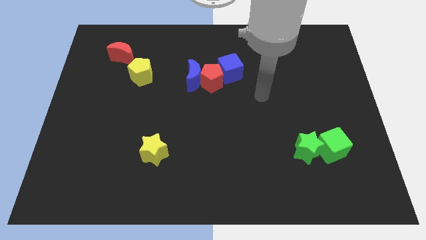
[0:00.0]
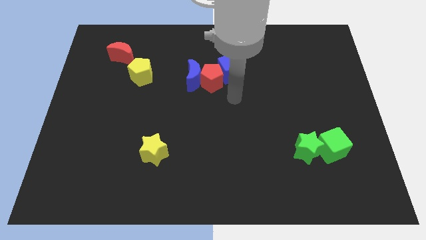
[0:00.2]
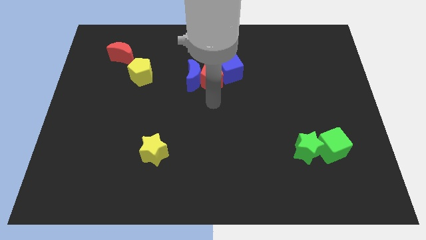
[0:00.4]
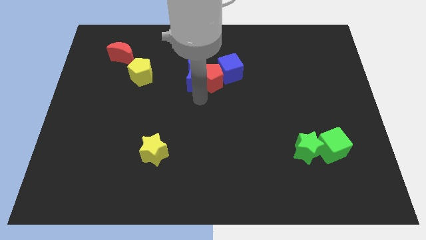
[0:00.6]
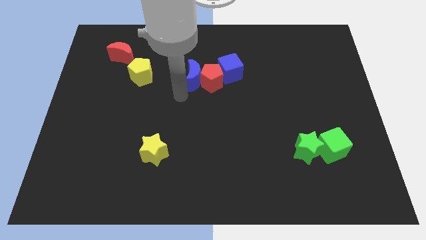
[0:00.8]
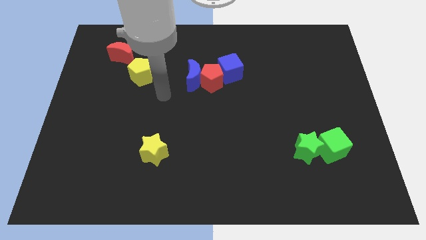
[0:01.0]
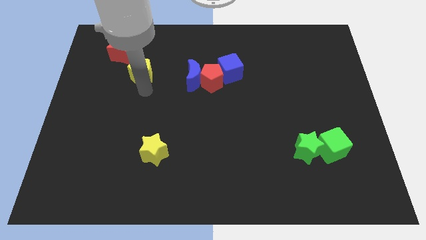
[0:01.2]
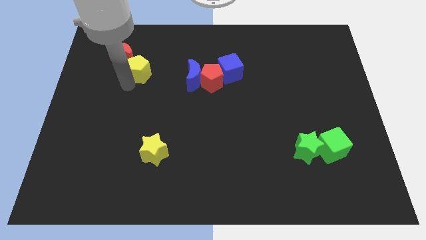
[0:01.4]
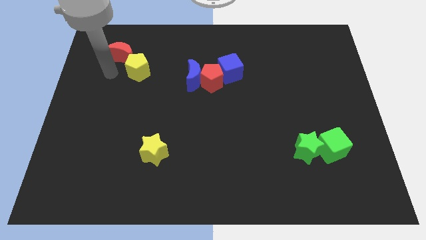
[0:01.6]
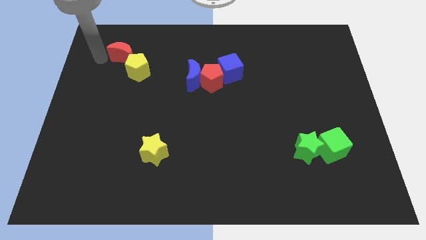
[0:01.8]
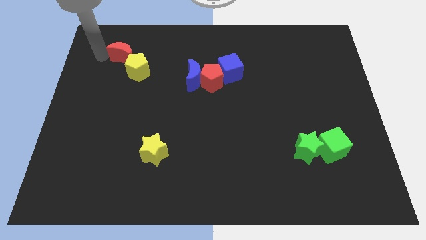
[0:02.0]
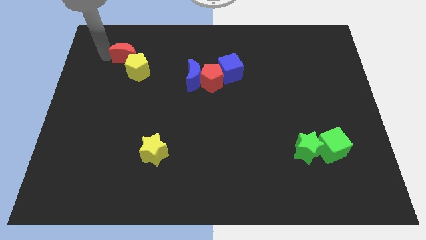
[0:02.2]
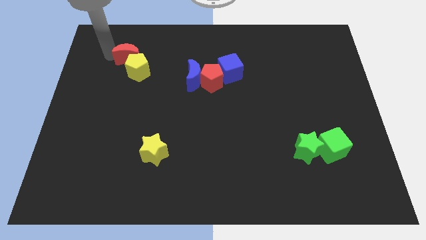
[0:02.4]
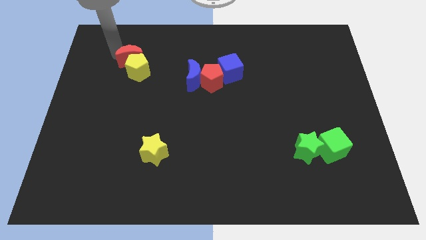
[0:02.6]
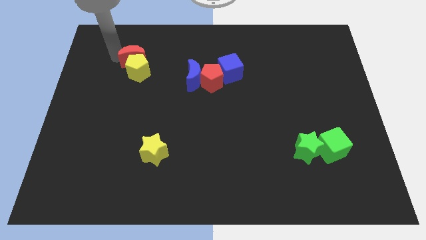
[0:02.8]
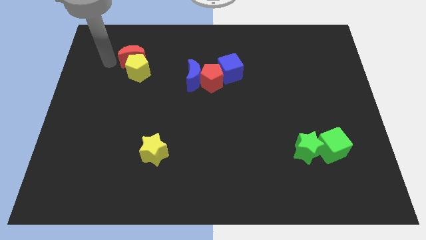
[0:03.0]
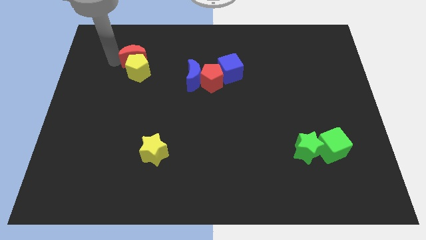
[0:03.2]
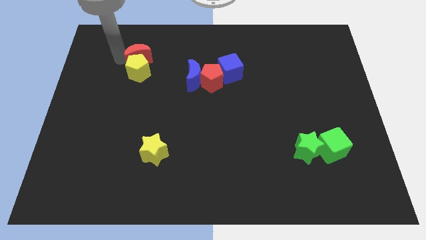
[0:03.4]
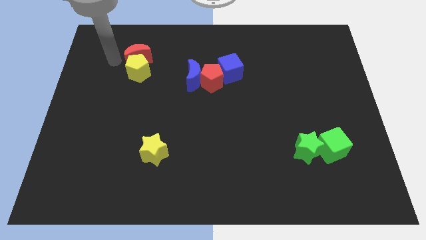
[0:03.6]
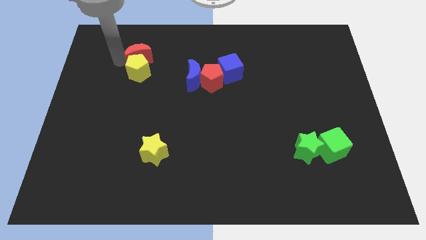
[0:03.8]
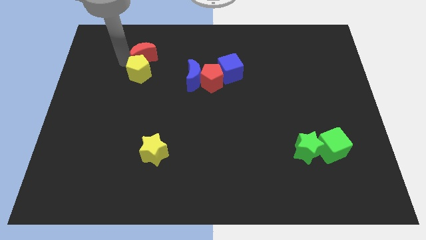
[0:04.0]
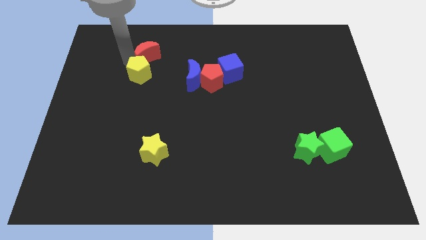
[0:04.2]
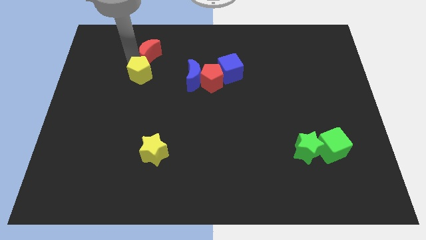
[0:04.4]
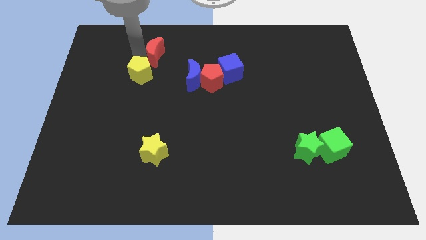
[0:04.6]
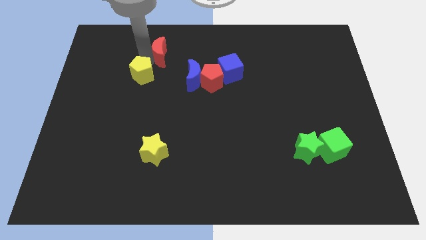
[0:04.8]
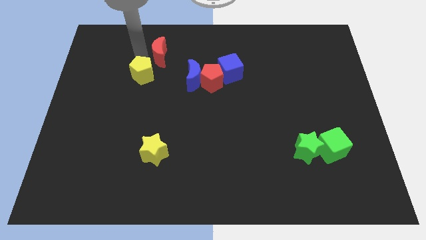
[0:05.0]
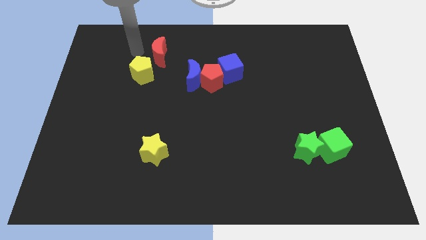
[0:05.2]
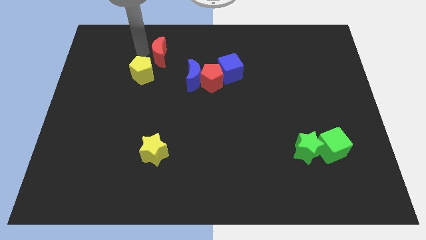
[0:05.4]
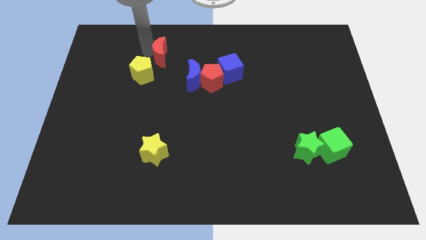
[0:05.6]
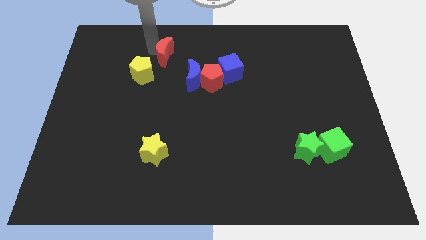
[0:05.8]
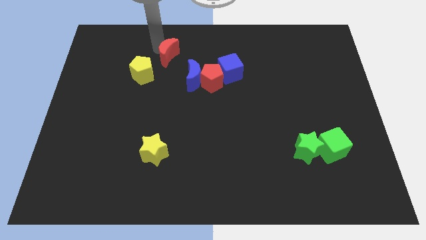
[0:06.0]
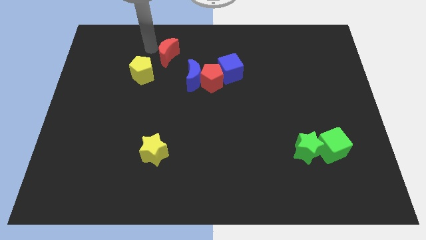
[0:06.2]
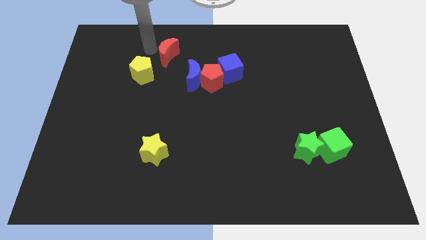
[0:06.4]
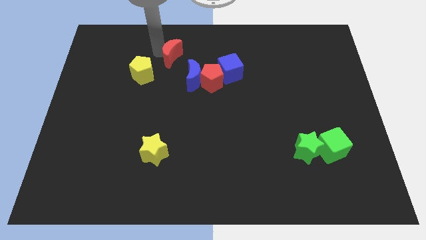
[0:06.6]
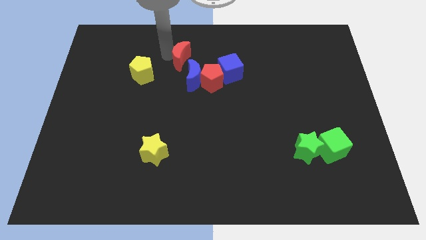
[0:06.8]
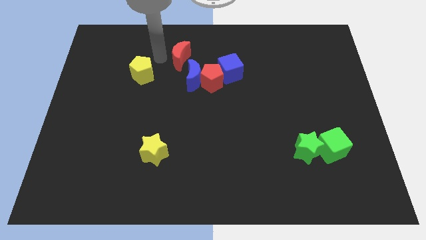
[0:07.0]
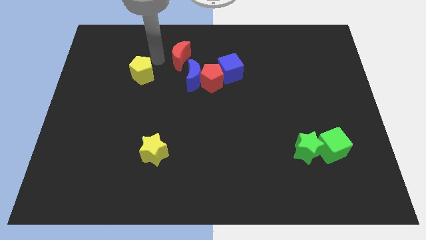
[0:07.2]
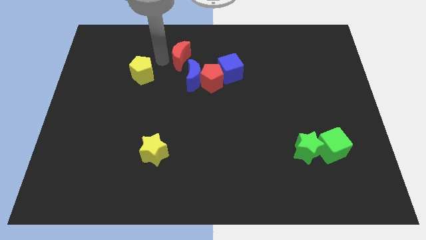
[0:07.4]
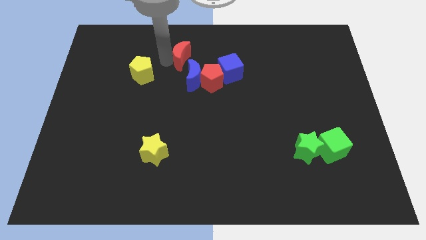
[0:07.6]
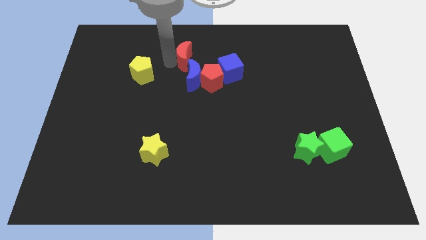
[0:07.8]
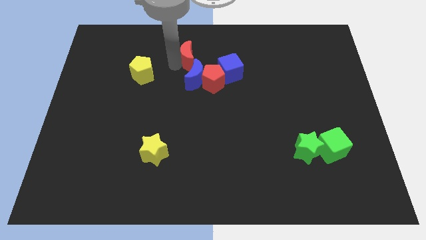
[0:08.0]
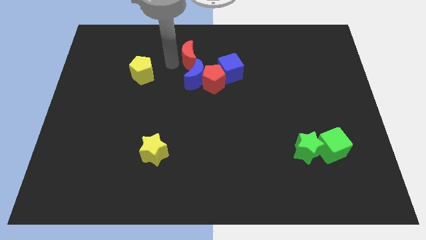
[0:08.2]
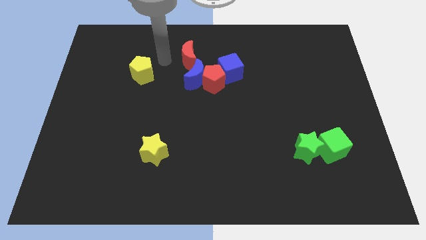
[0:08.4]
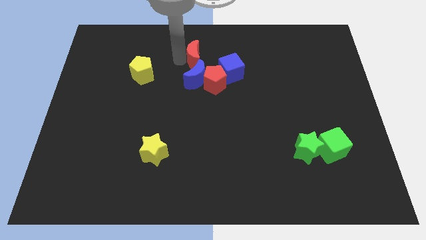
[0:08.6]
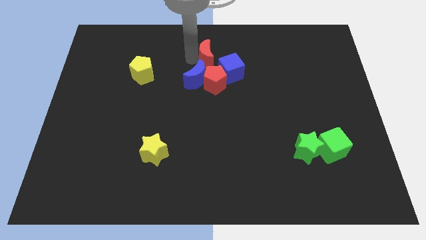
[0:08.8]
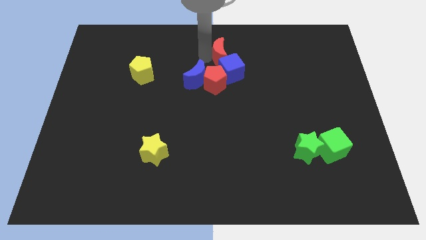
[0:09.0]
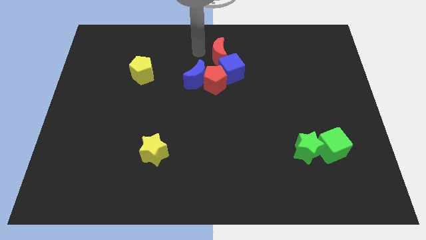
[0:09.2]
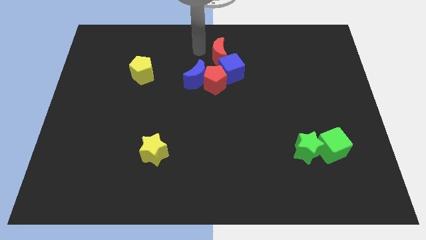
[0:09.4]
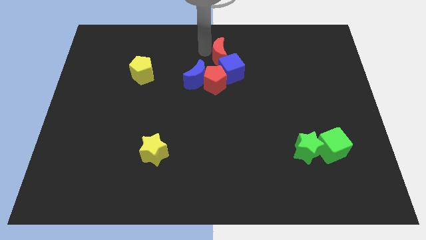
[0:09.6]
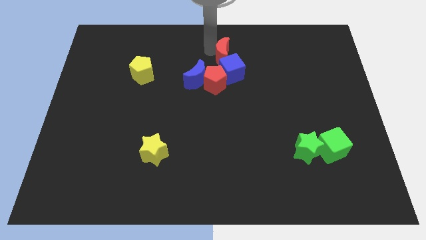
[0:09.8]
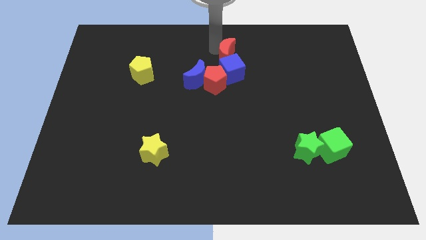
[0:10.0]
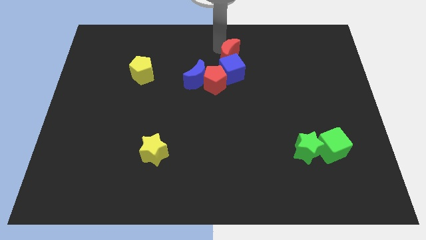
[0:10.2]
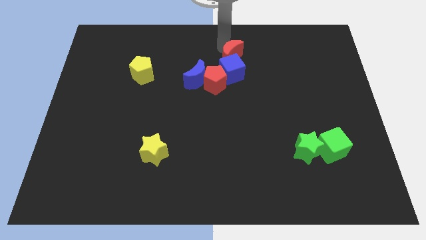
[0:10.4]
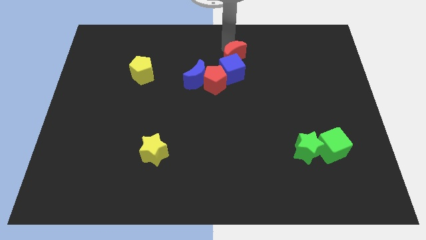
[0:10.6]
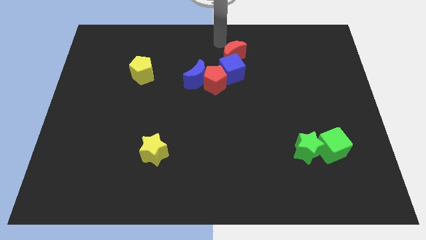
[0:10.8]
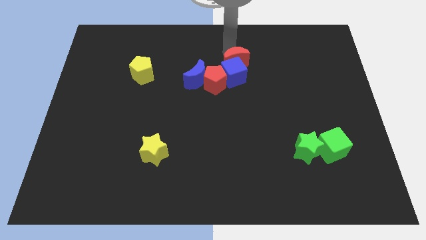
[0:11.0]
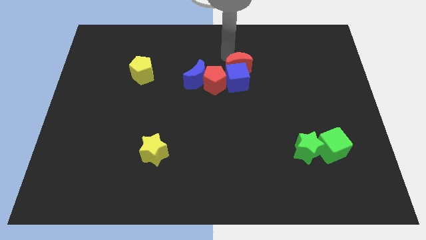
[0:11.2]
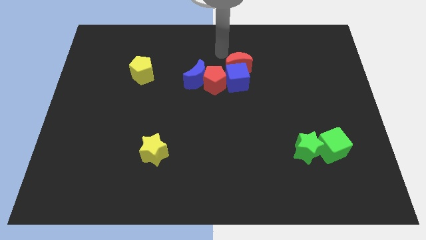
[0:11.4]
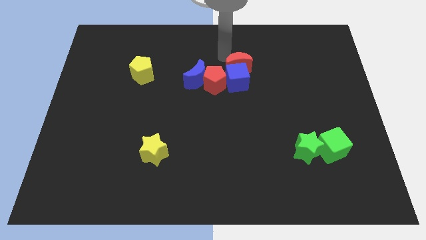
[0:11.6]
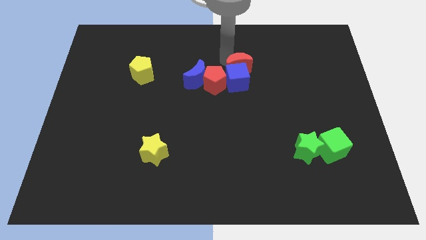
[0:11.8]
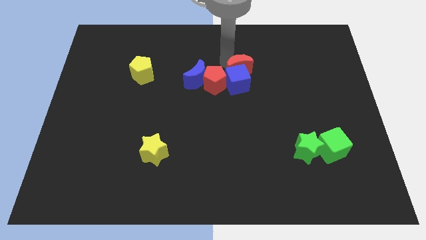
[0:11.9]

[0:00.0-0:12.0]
push the red moon right of the red pentagon

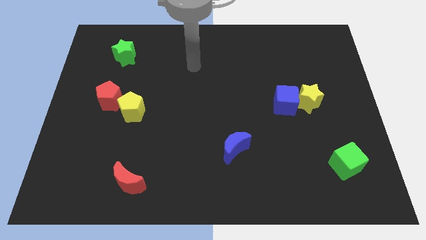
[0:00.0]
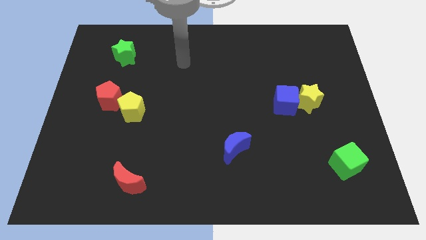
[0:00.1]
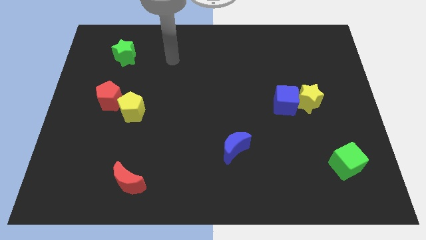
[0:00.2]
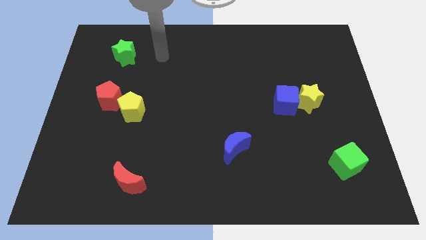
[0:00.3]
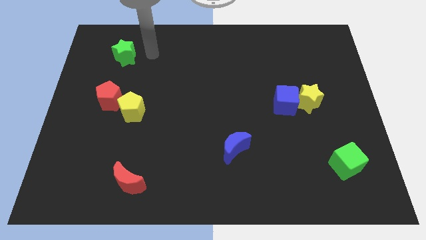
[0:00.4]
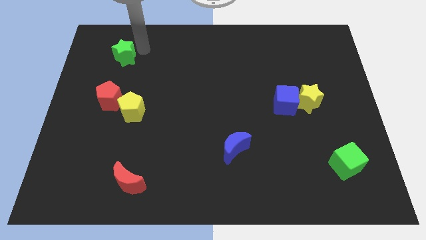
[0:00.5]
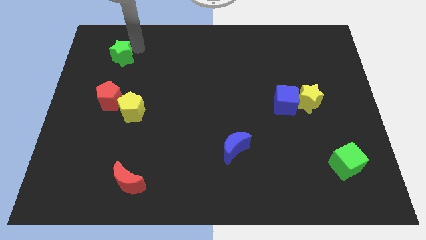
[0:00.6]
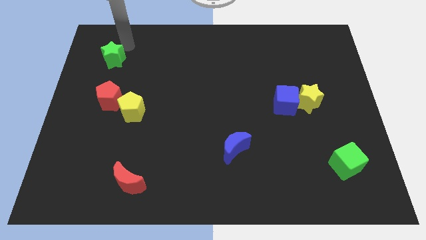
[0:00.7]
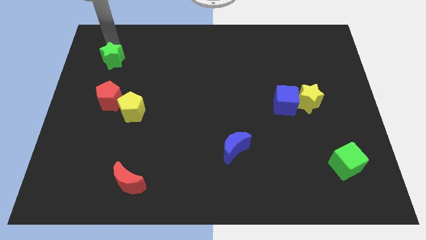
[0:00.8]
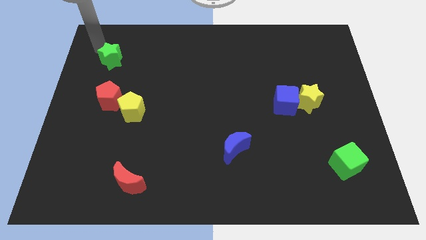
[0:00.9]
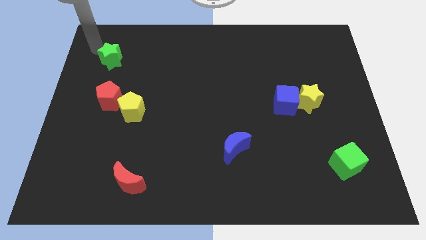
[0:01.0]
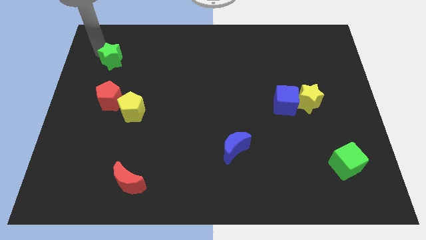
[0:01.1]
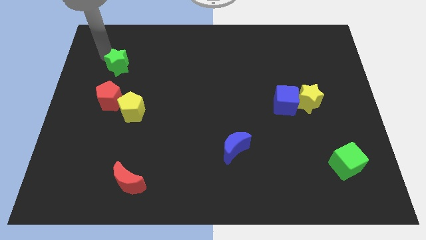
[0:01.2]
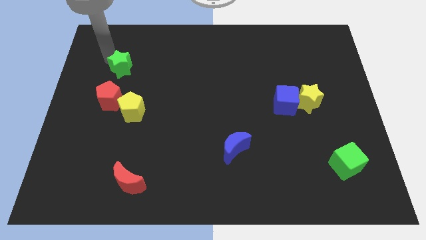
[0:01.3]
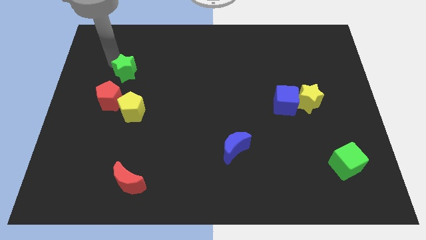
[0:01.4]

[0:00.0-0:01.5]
put the green star to the top side of the yellow pentagon

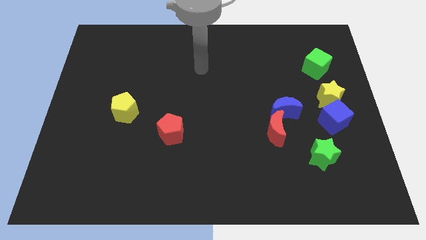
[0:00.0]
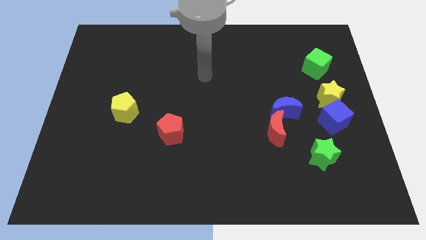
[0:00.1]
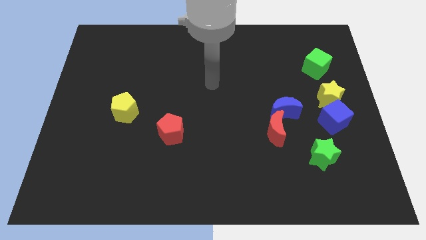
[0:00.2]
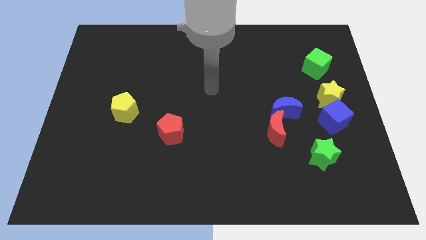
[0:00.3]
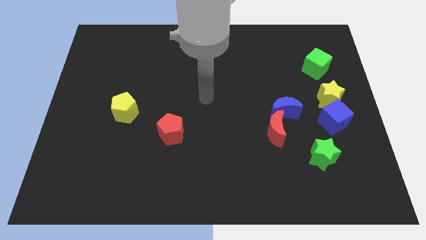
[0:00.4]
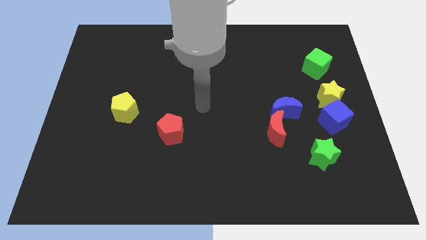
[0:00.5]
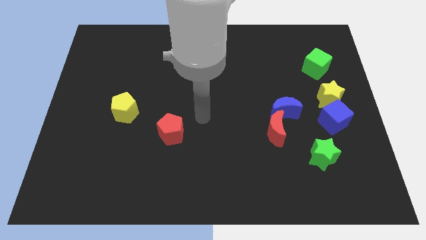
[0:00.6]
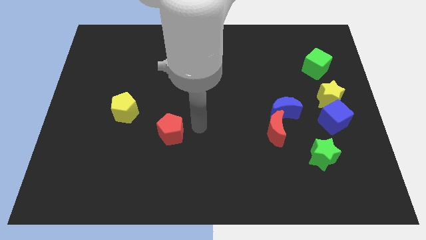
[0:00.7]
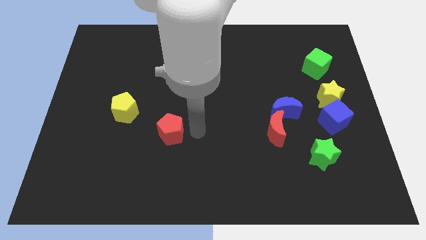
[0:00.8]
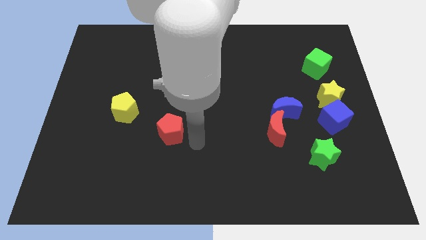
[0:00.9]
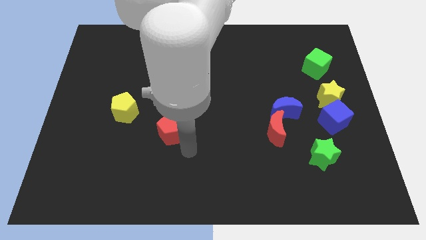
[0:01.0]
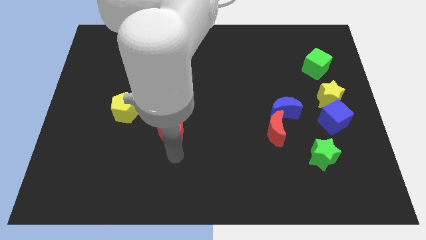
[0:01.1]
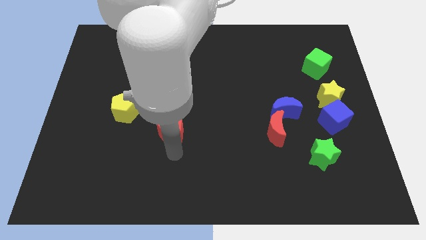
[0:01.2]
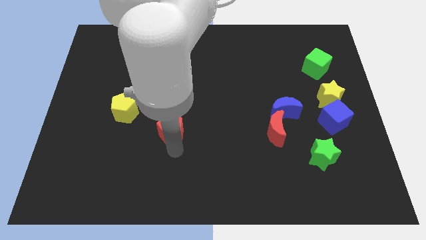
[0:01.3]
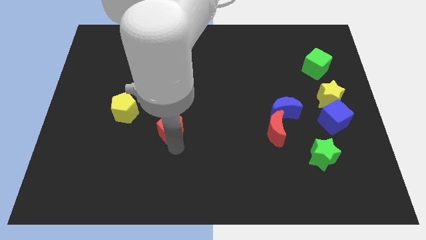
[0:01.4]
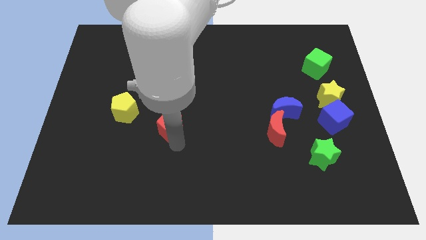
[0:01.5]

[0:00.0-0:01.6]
slide the red pentagon right of the yellow pentagon
